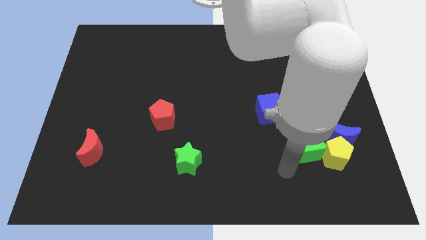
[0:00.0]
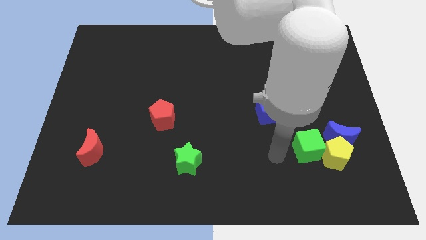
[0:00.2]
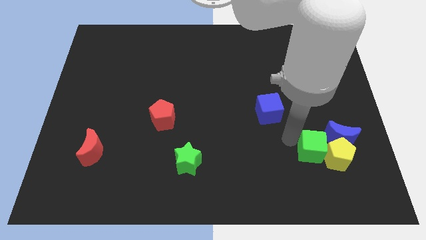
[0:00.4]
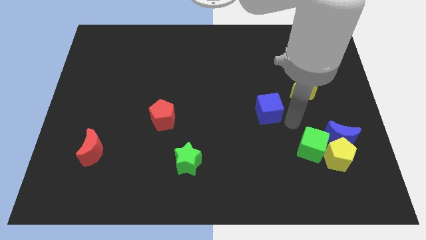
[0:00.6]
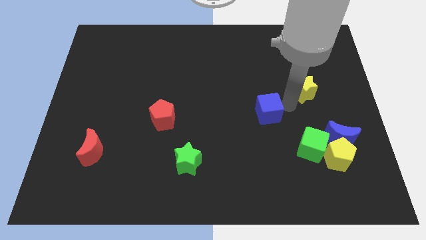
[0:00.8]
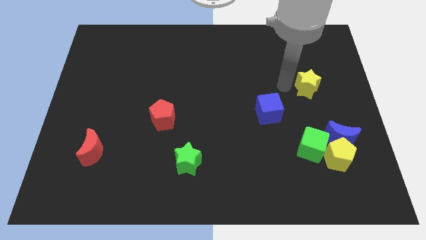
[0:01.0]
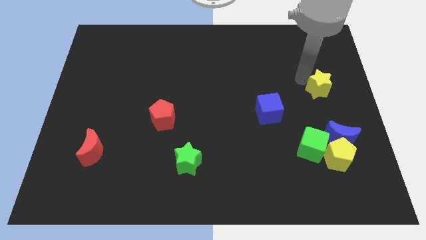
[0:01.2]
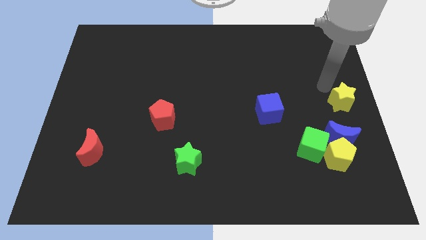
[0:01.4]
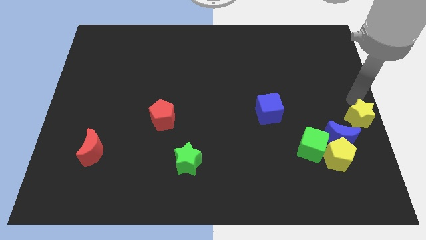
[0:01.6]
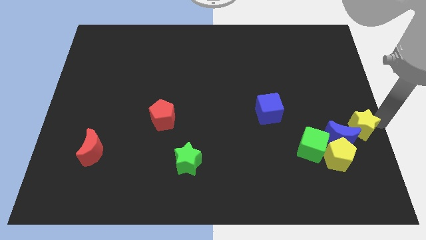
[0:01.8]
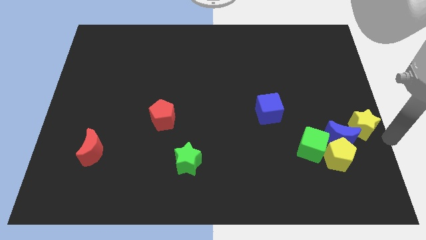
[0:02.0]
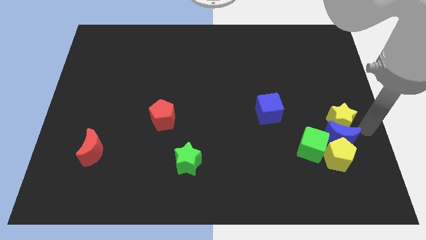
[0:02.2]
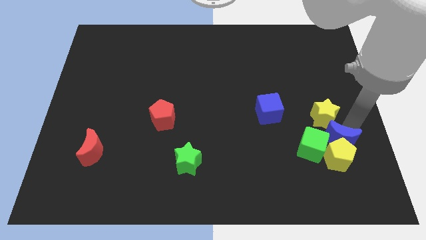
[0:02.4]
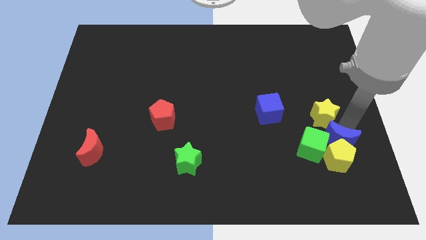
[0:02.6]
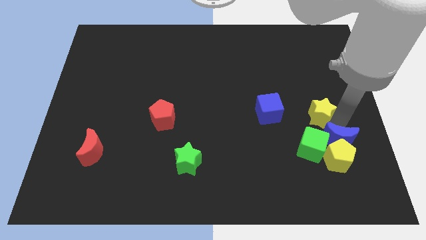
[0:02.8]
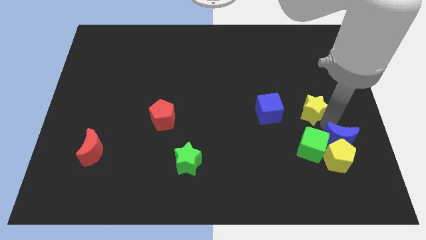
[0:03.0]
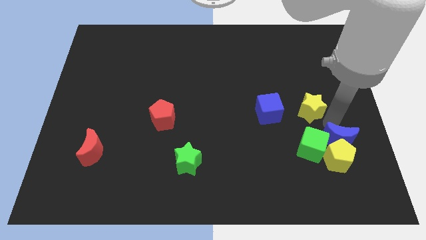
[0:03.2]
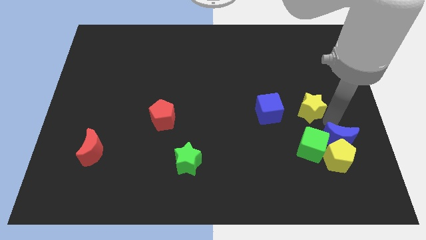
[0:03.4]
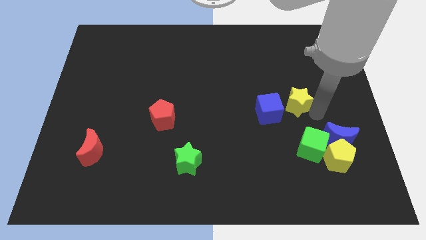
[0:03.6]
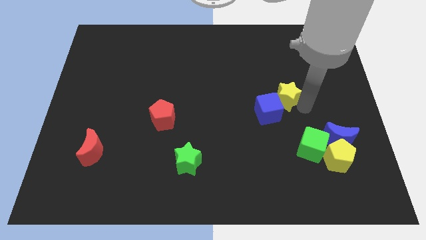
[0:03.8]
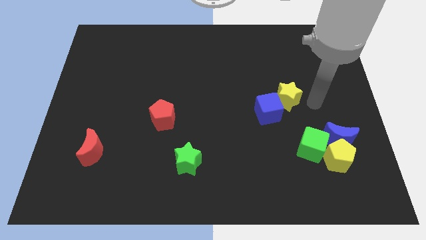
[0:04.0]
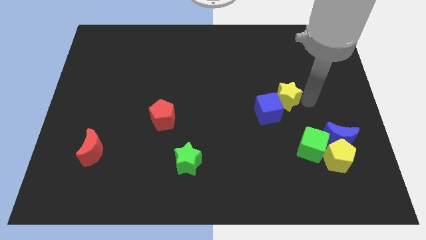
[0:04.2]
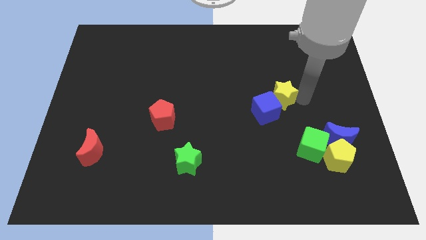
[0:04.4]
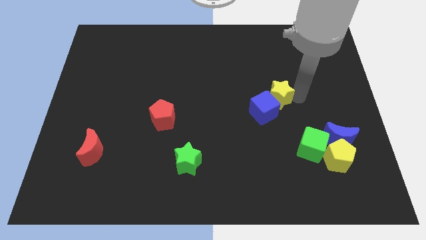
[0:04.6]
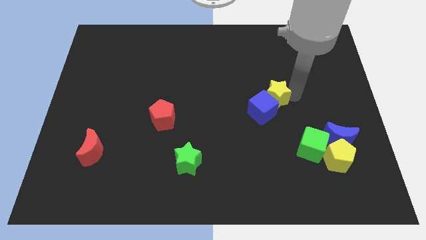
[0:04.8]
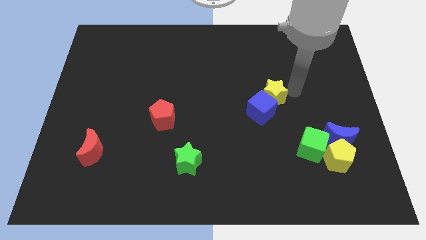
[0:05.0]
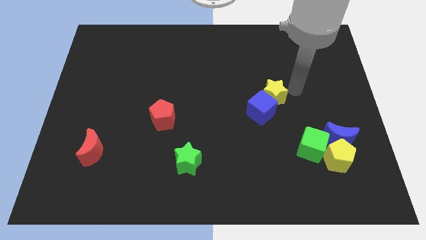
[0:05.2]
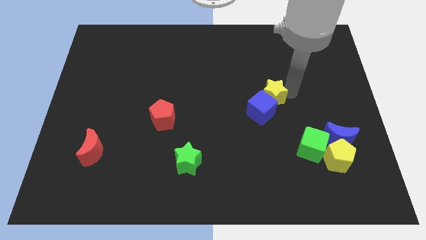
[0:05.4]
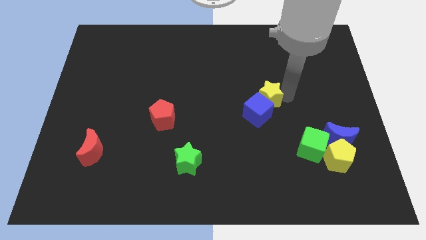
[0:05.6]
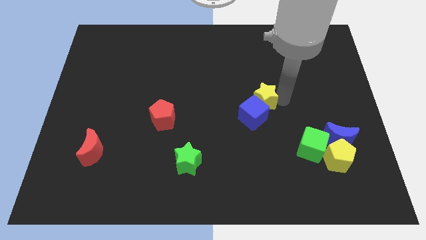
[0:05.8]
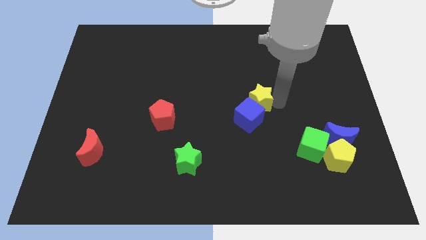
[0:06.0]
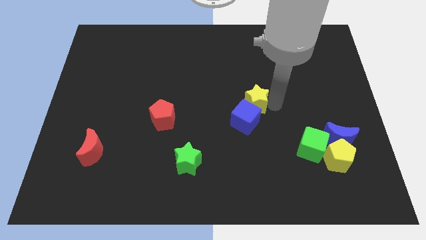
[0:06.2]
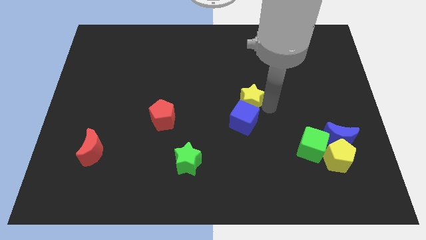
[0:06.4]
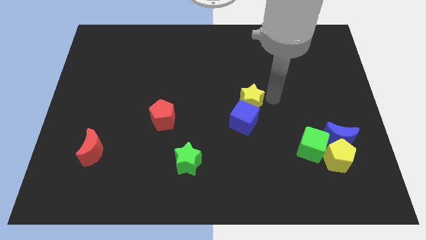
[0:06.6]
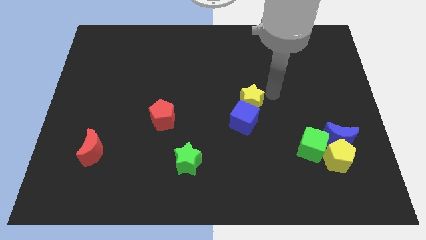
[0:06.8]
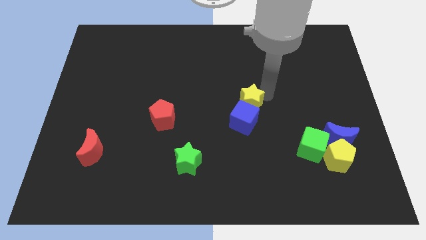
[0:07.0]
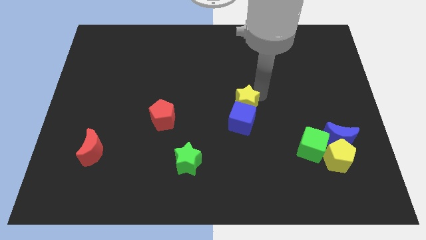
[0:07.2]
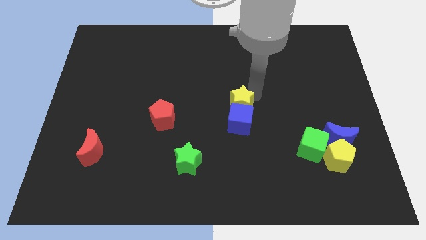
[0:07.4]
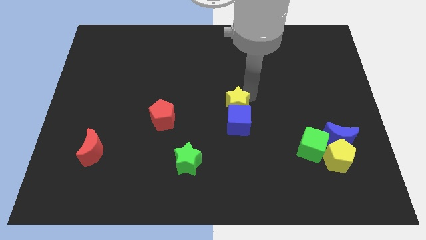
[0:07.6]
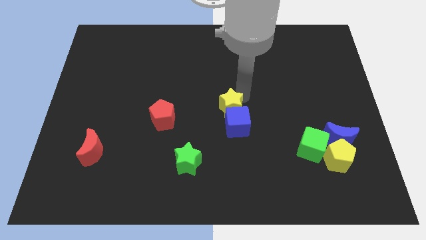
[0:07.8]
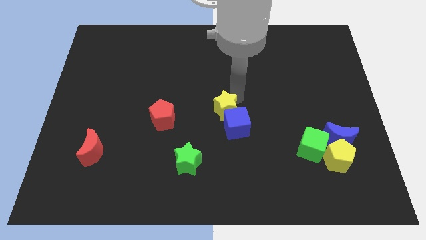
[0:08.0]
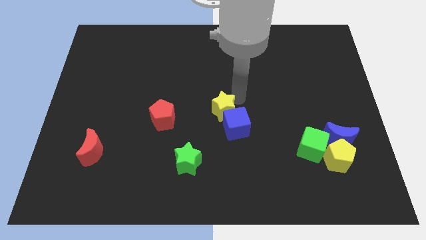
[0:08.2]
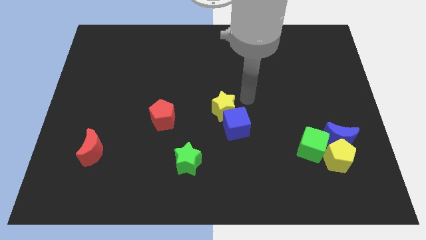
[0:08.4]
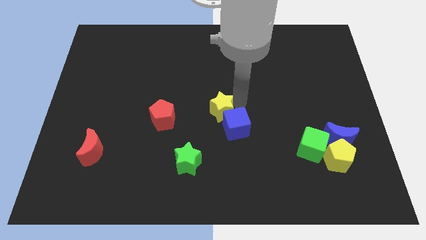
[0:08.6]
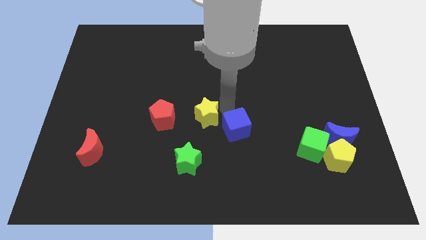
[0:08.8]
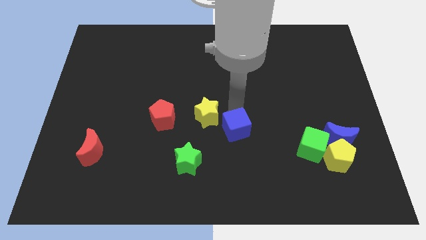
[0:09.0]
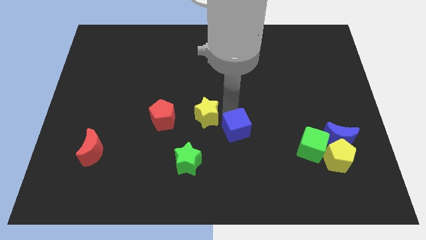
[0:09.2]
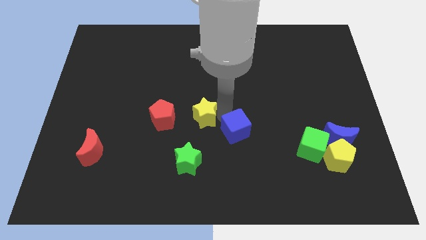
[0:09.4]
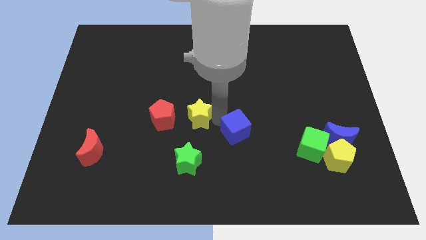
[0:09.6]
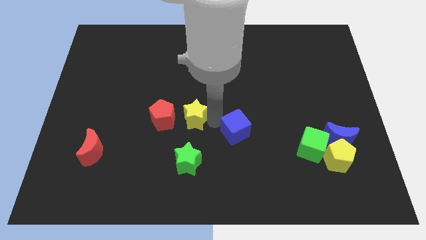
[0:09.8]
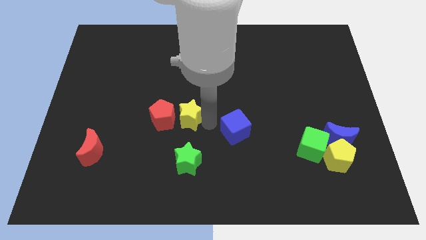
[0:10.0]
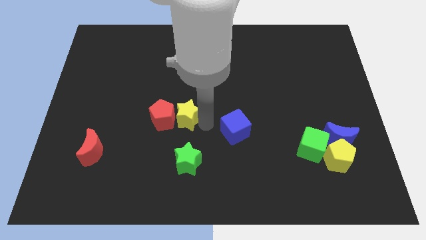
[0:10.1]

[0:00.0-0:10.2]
slide the yellow star close to the red pentagon

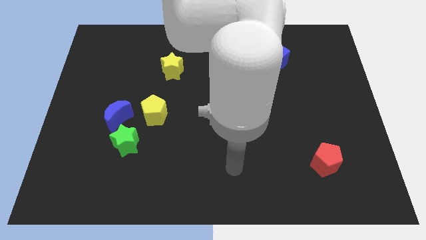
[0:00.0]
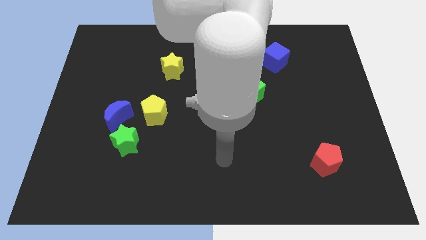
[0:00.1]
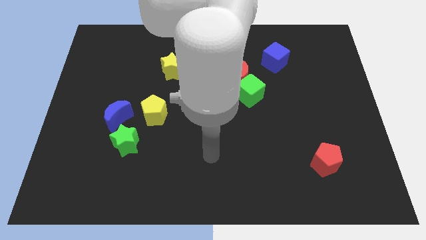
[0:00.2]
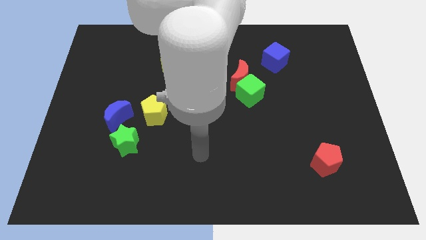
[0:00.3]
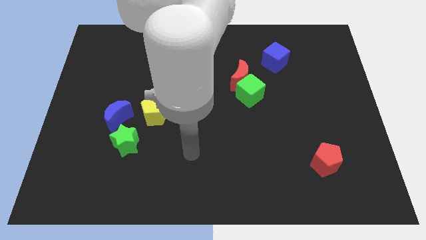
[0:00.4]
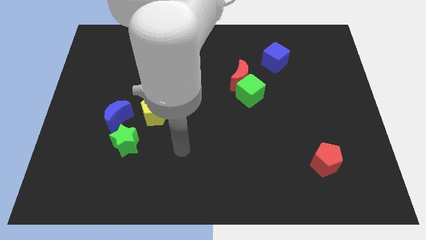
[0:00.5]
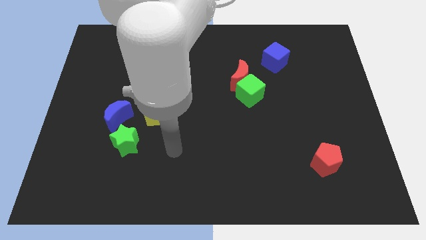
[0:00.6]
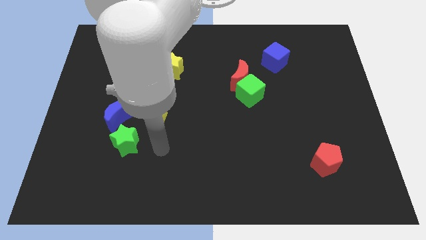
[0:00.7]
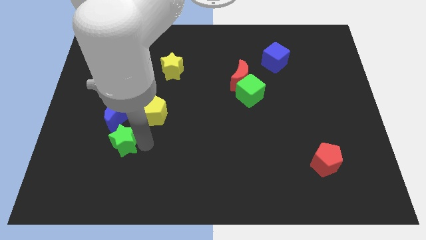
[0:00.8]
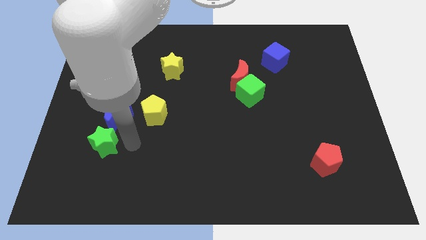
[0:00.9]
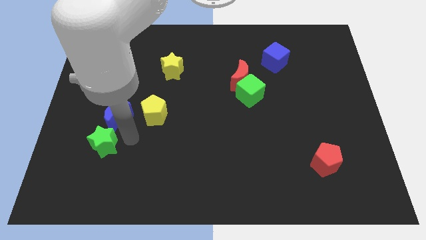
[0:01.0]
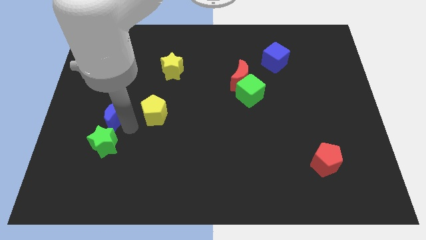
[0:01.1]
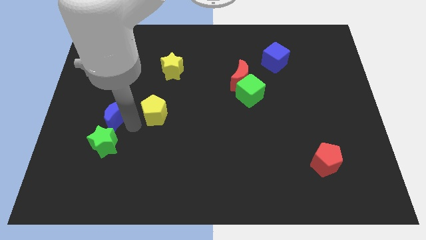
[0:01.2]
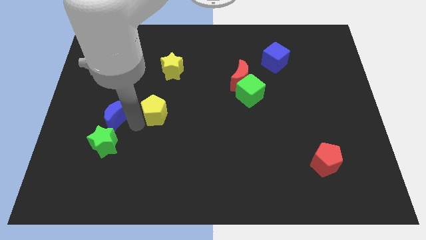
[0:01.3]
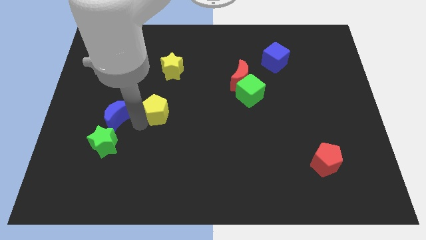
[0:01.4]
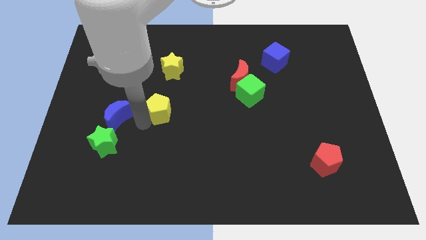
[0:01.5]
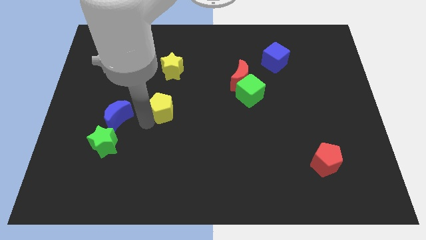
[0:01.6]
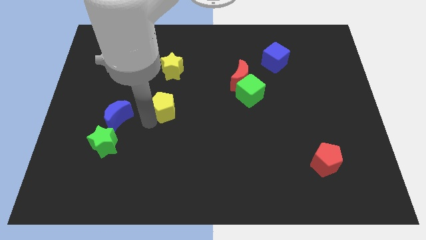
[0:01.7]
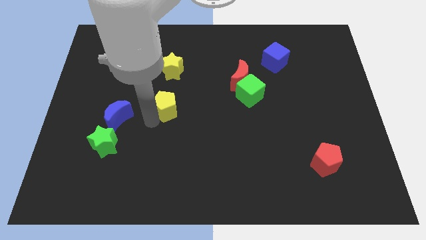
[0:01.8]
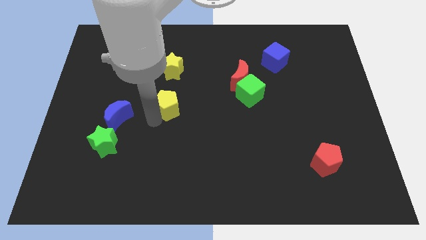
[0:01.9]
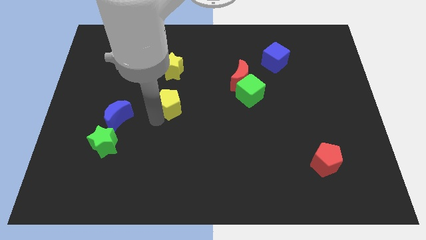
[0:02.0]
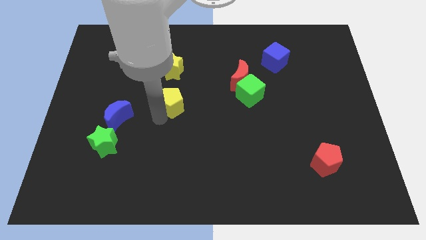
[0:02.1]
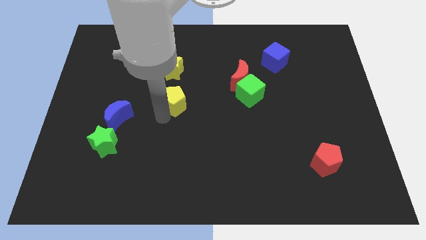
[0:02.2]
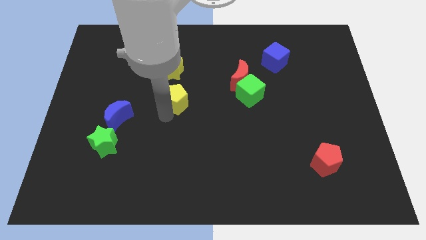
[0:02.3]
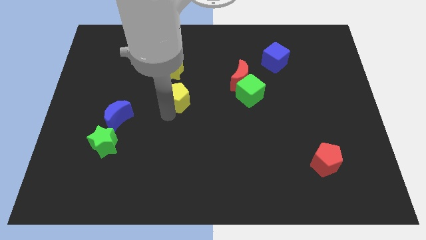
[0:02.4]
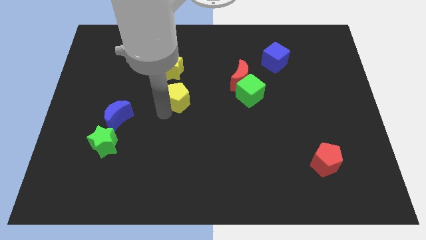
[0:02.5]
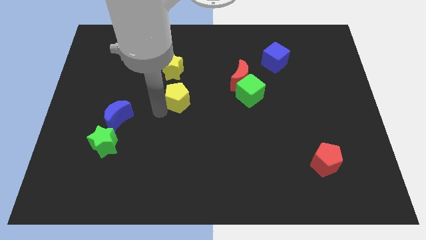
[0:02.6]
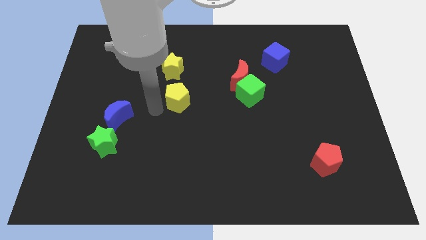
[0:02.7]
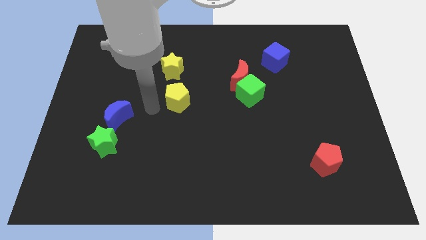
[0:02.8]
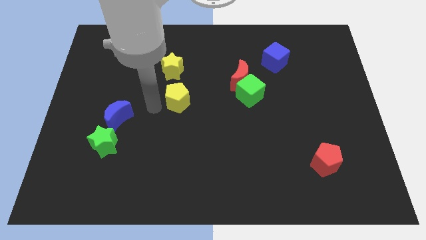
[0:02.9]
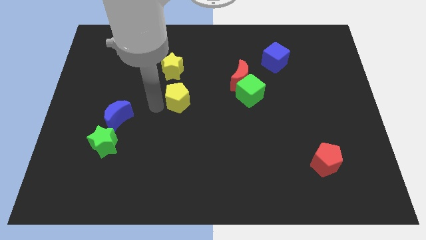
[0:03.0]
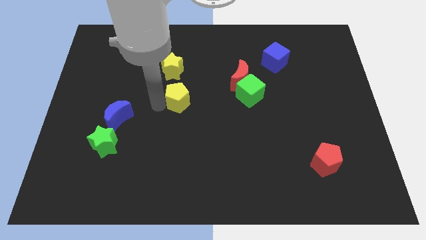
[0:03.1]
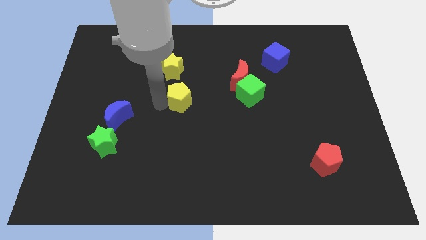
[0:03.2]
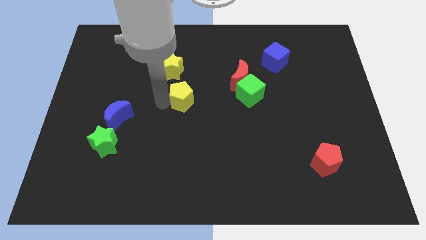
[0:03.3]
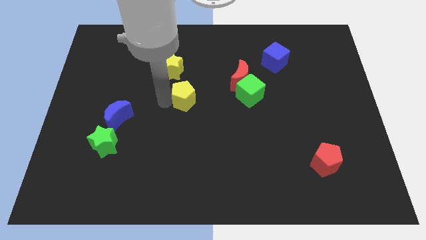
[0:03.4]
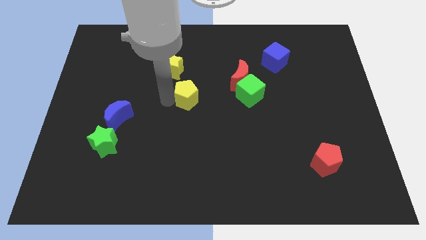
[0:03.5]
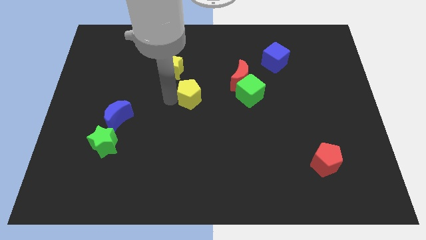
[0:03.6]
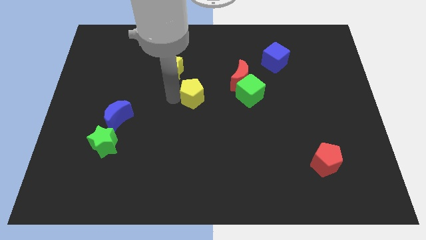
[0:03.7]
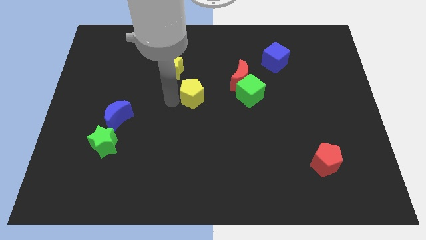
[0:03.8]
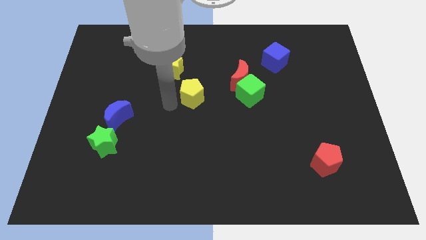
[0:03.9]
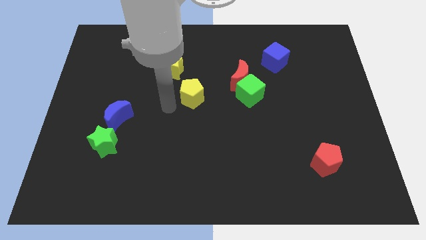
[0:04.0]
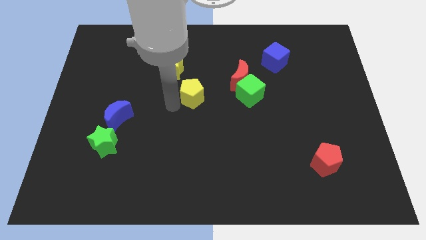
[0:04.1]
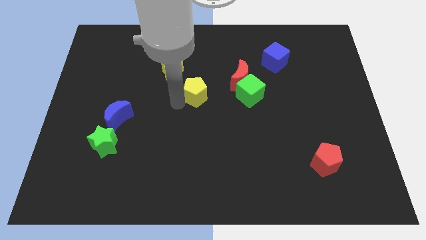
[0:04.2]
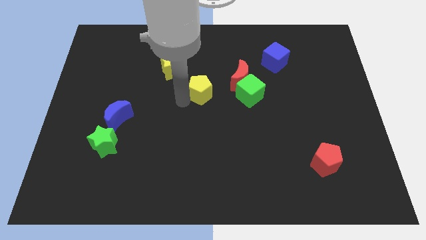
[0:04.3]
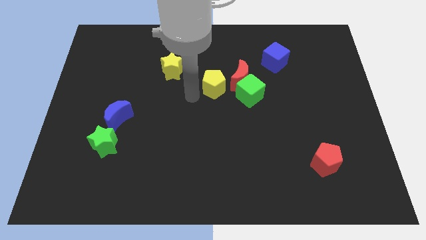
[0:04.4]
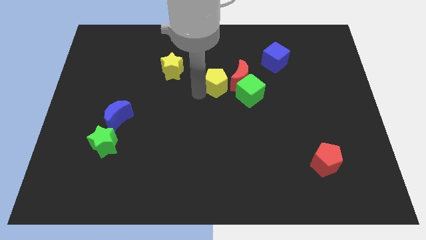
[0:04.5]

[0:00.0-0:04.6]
push the yellow pentagon to the red moon
